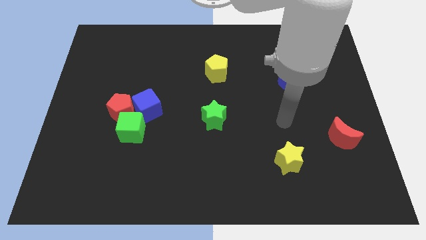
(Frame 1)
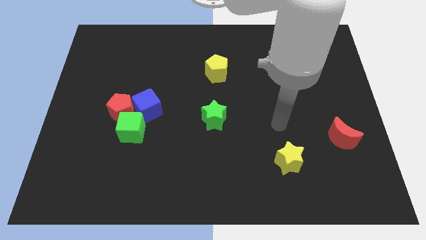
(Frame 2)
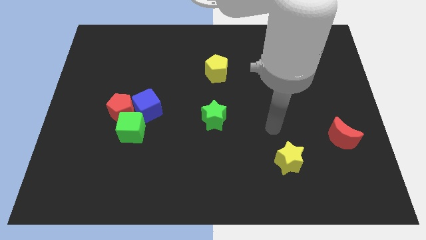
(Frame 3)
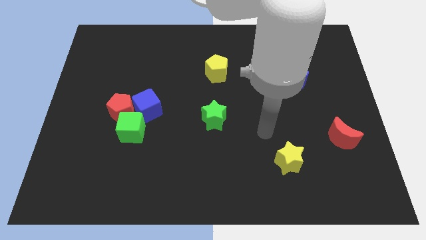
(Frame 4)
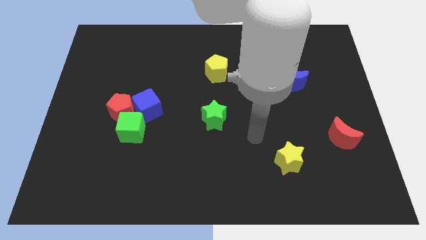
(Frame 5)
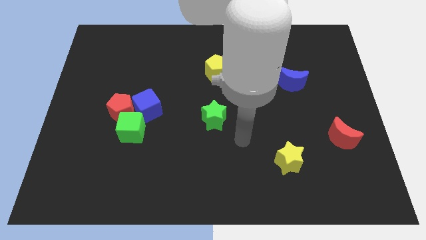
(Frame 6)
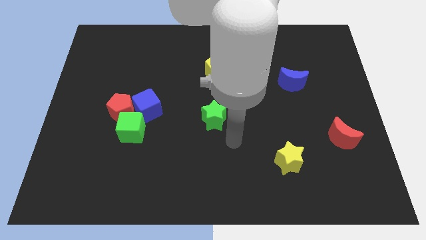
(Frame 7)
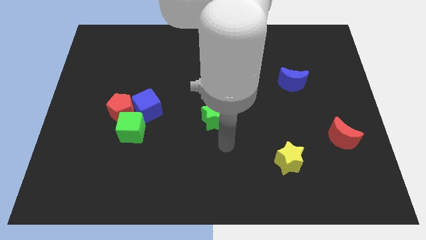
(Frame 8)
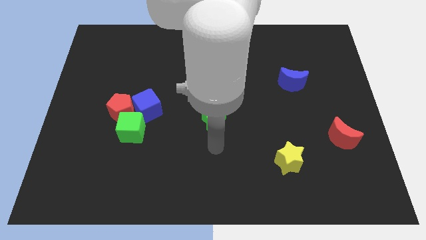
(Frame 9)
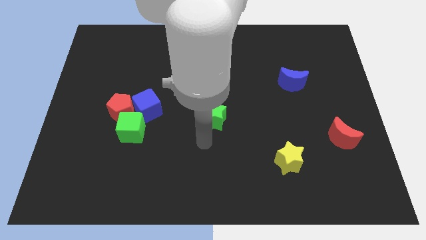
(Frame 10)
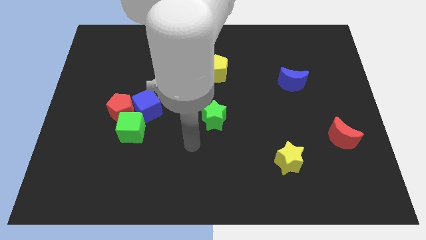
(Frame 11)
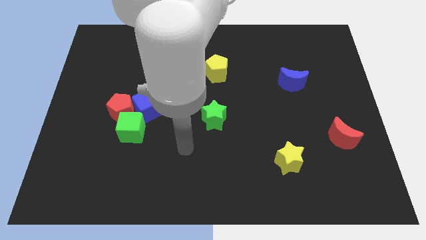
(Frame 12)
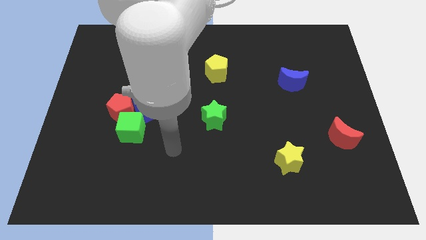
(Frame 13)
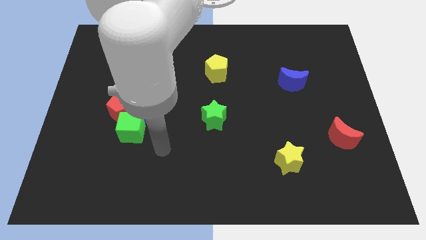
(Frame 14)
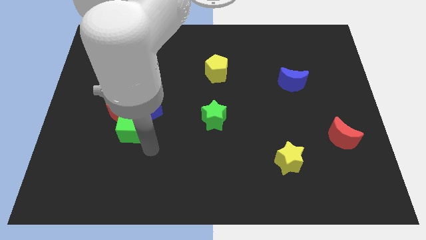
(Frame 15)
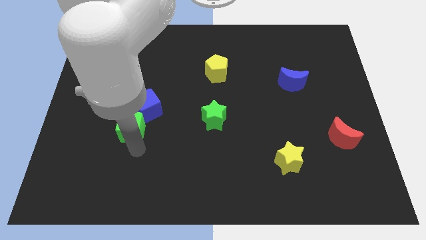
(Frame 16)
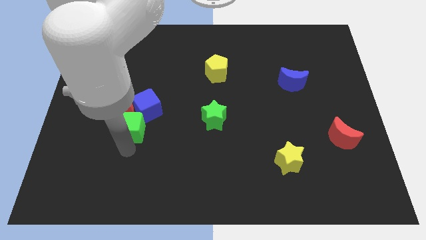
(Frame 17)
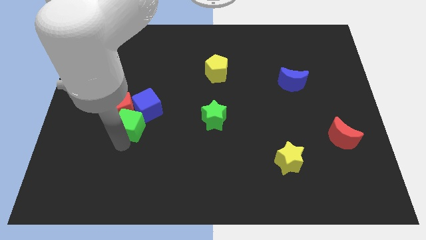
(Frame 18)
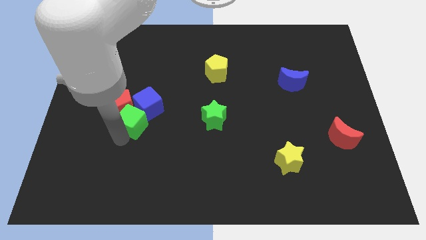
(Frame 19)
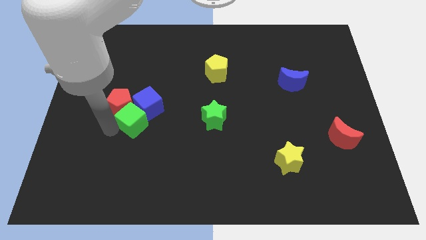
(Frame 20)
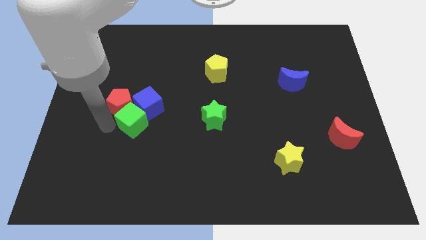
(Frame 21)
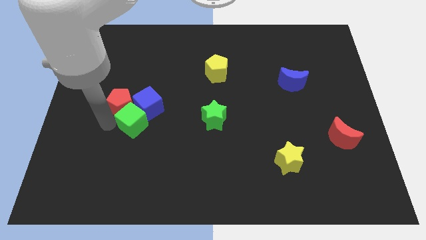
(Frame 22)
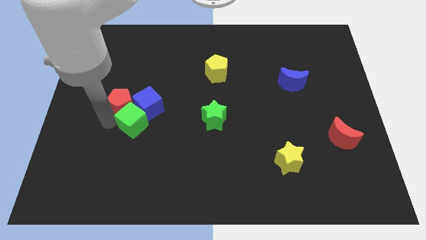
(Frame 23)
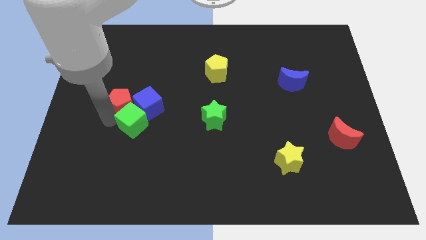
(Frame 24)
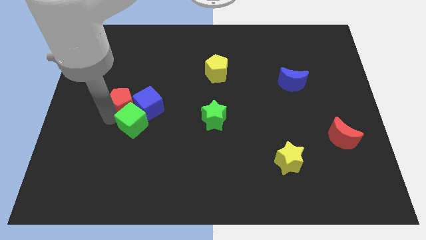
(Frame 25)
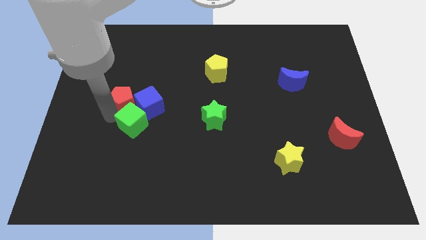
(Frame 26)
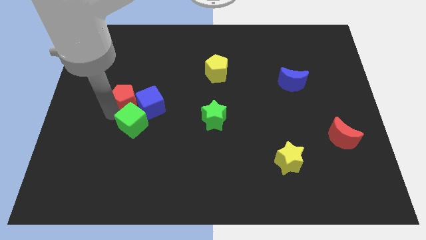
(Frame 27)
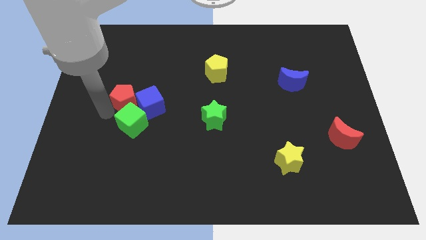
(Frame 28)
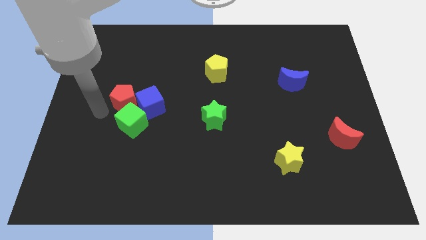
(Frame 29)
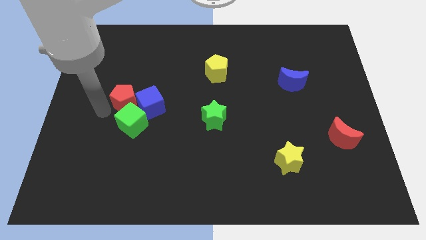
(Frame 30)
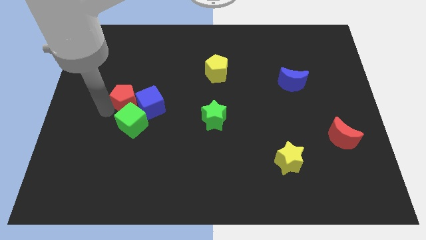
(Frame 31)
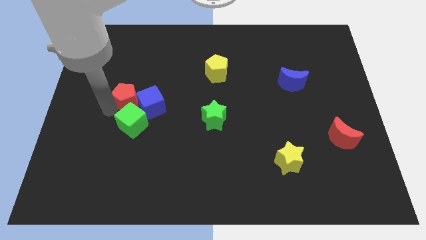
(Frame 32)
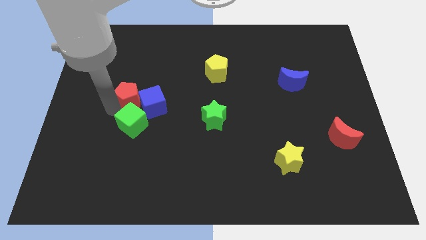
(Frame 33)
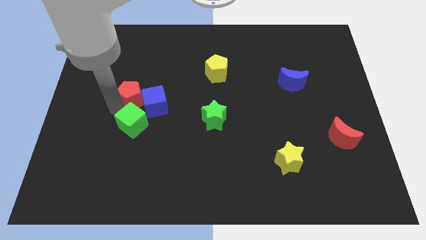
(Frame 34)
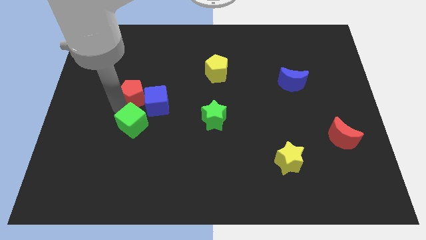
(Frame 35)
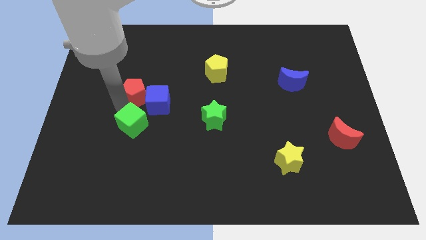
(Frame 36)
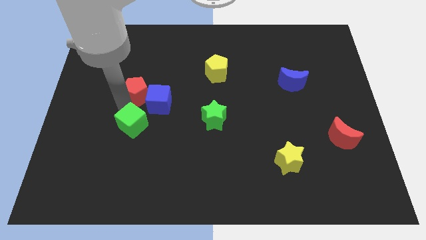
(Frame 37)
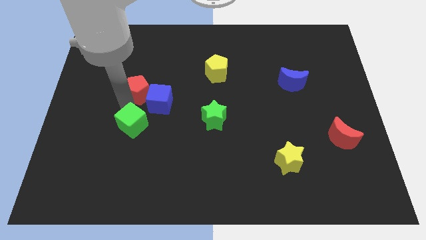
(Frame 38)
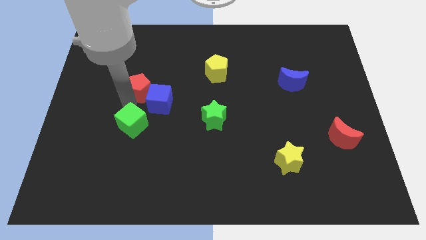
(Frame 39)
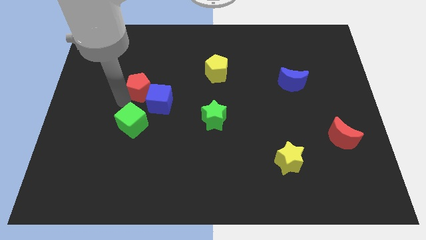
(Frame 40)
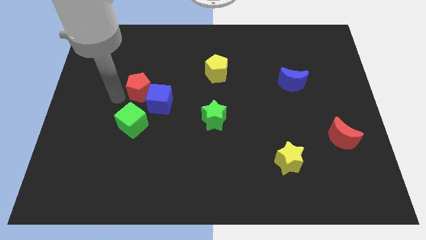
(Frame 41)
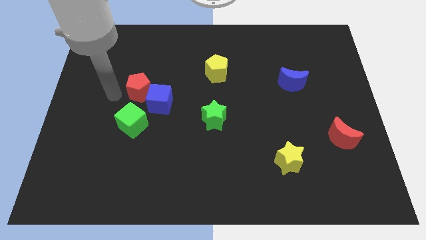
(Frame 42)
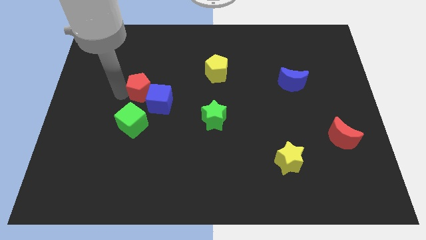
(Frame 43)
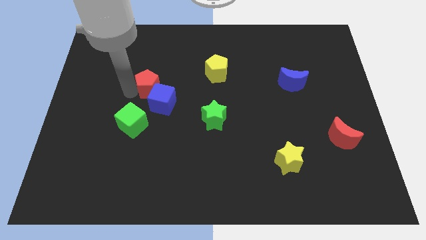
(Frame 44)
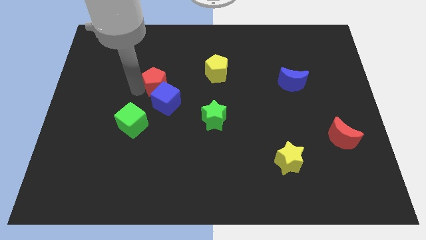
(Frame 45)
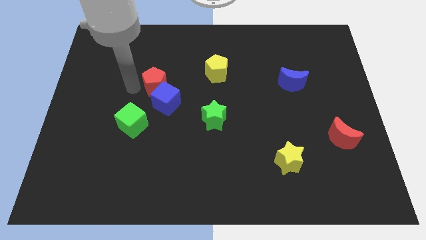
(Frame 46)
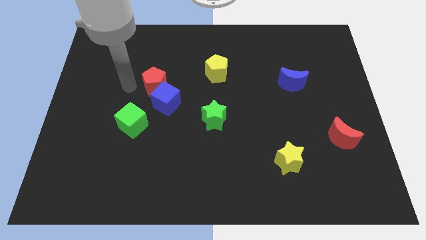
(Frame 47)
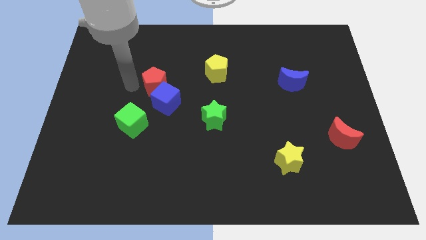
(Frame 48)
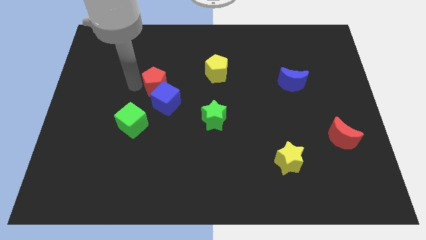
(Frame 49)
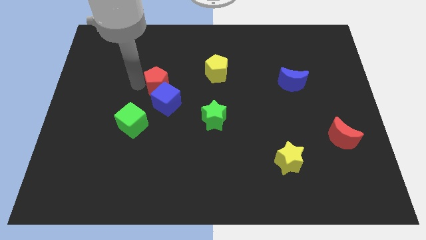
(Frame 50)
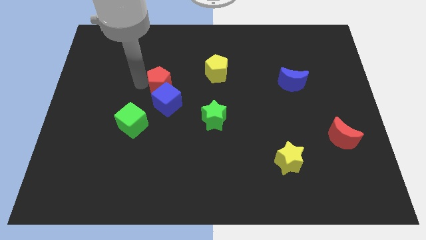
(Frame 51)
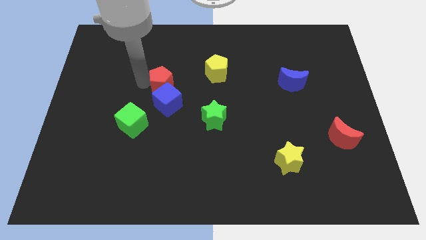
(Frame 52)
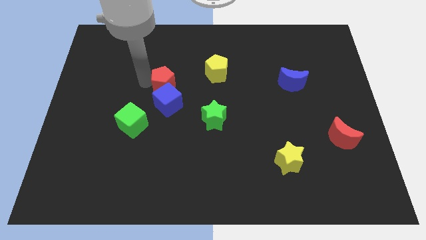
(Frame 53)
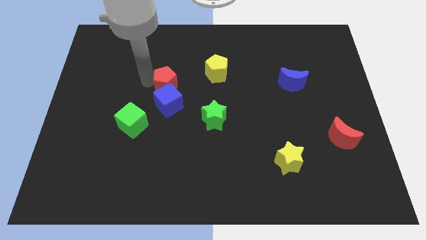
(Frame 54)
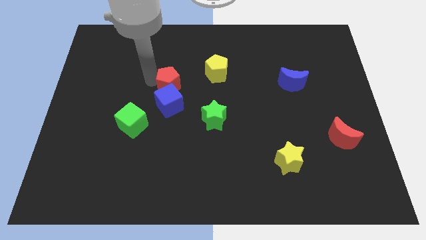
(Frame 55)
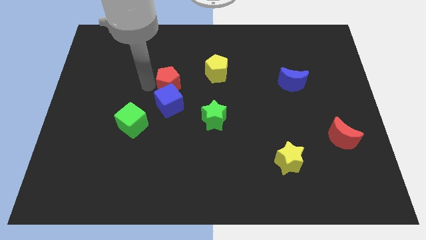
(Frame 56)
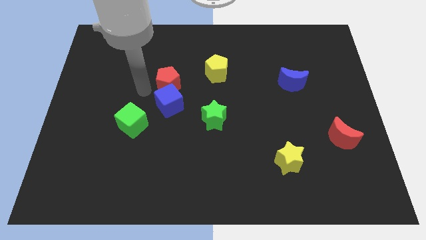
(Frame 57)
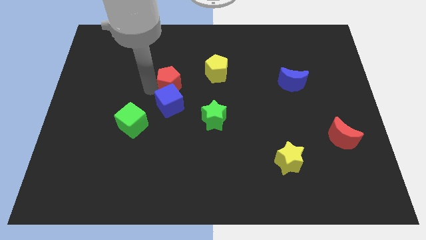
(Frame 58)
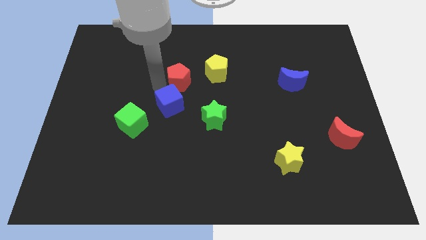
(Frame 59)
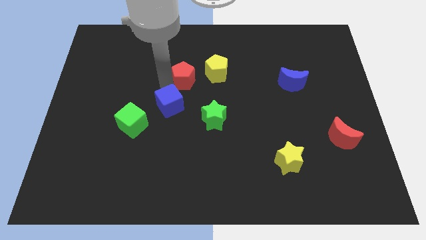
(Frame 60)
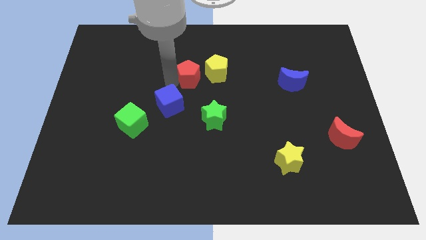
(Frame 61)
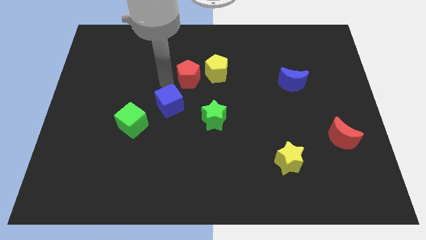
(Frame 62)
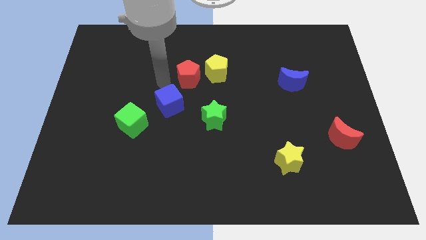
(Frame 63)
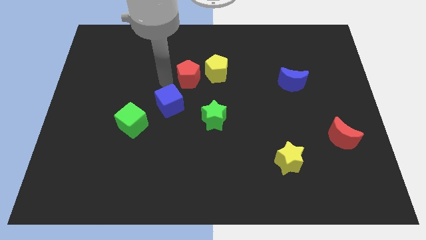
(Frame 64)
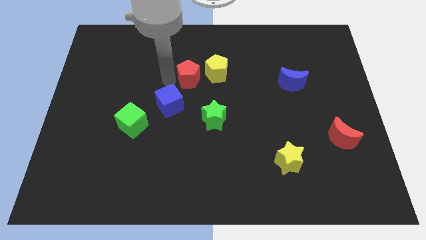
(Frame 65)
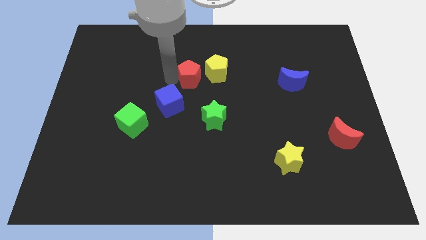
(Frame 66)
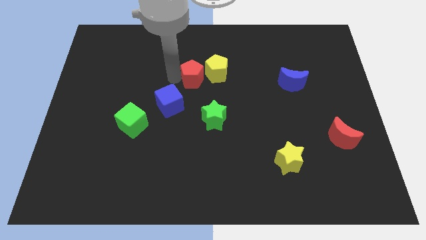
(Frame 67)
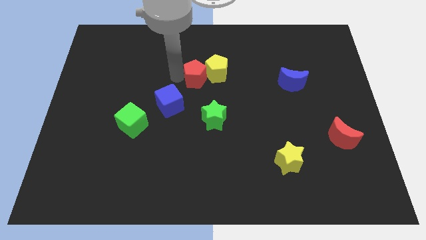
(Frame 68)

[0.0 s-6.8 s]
move the red pentagon next to the yellow pentagon

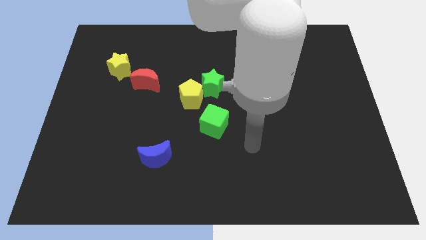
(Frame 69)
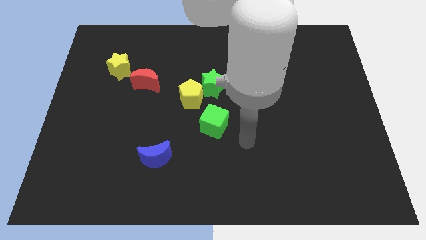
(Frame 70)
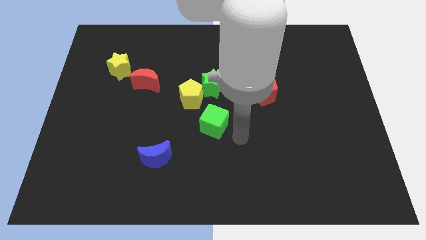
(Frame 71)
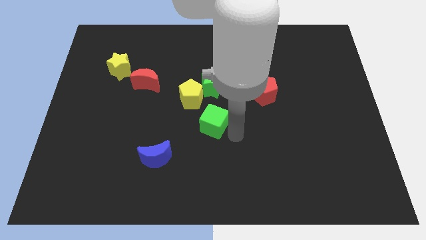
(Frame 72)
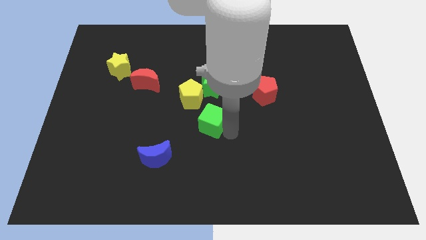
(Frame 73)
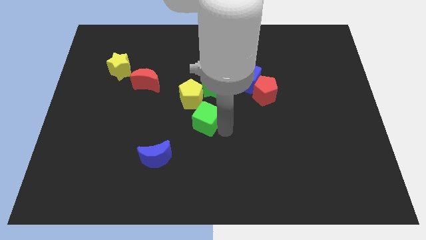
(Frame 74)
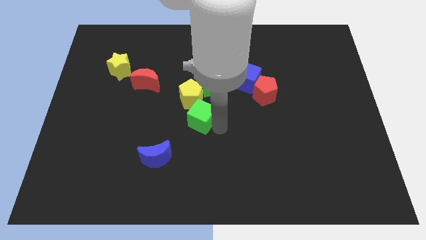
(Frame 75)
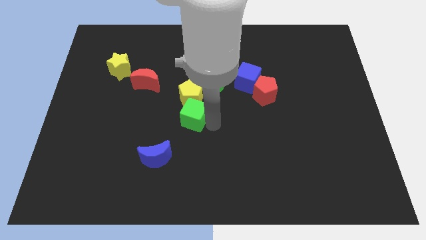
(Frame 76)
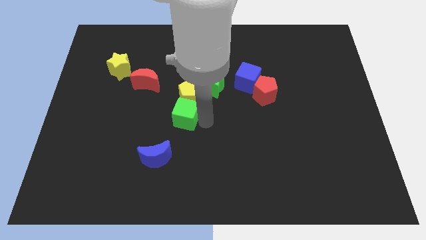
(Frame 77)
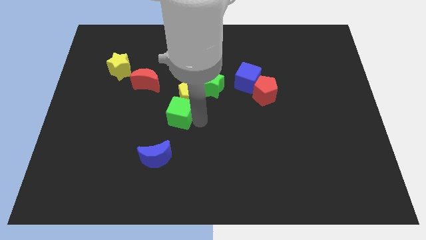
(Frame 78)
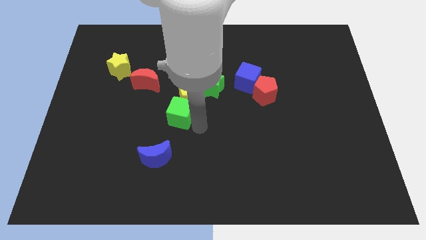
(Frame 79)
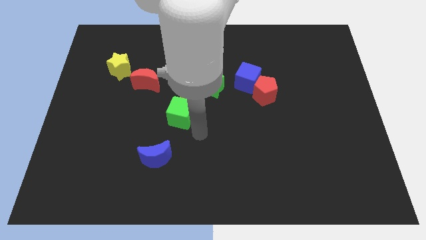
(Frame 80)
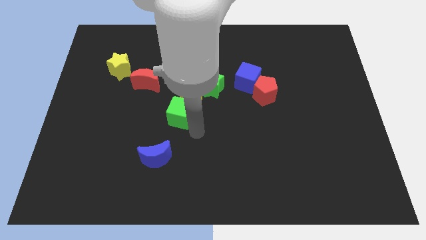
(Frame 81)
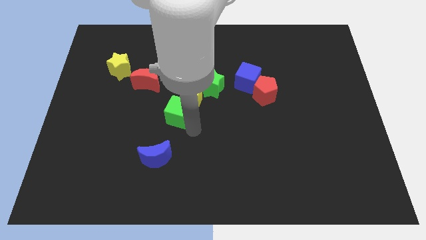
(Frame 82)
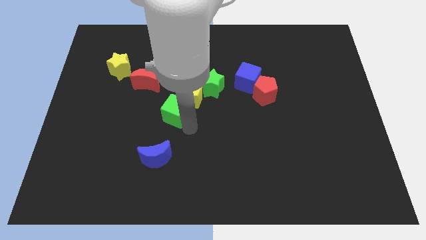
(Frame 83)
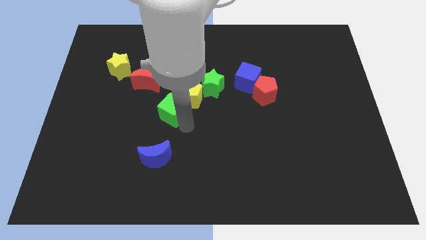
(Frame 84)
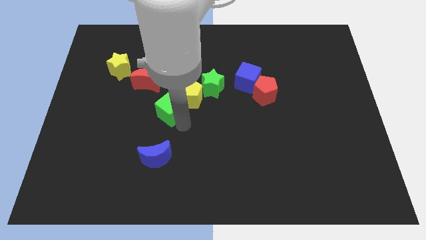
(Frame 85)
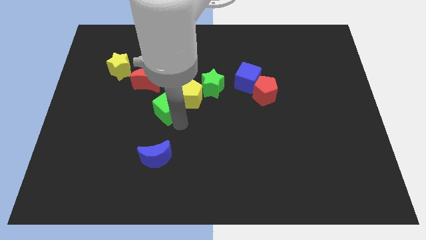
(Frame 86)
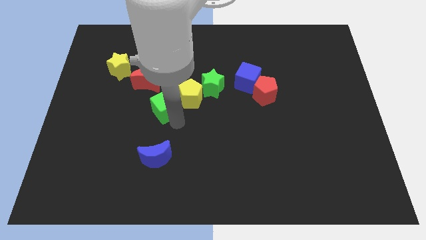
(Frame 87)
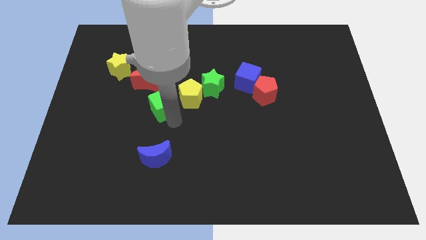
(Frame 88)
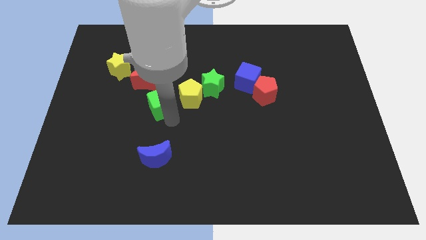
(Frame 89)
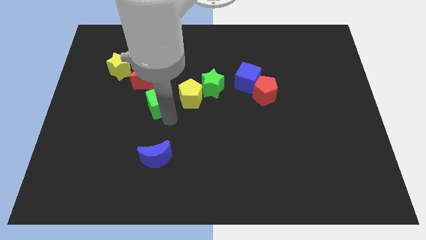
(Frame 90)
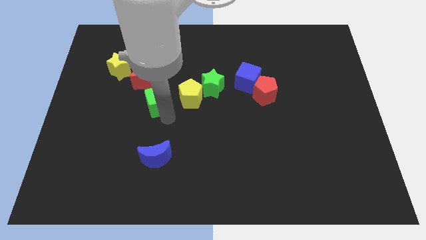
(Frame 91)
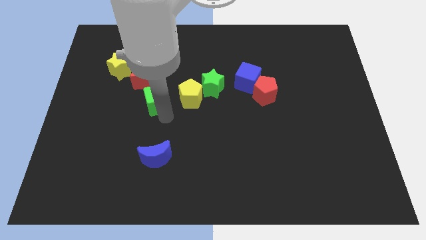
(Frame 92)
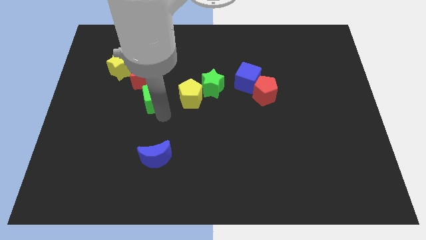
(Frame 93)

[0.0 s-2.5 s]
put the green cube next to the red moon
